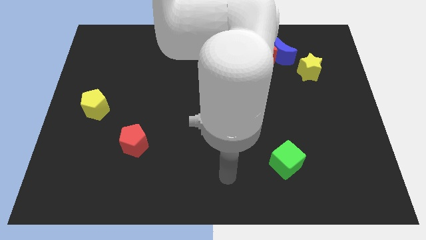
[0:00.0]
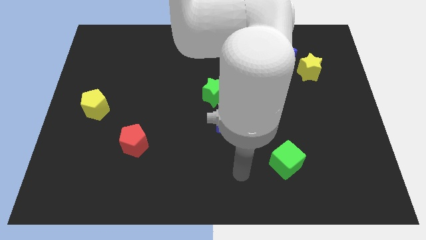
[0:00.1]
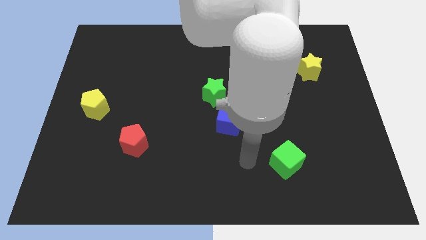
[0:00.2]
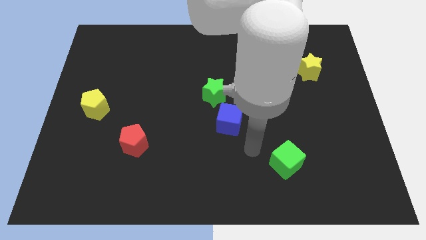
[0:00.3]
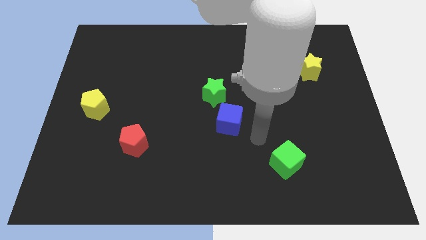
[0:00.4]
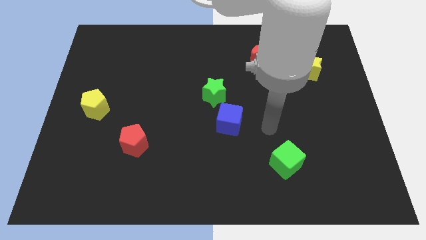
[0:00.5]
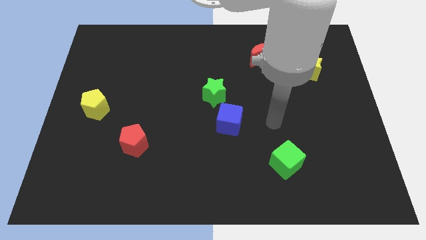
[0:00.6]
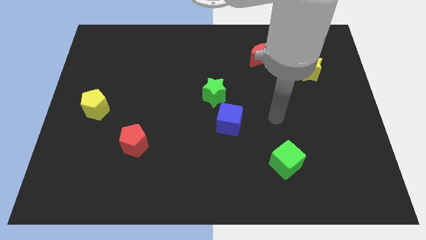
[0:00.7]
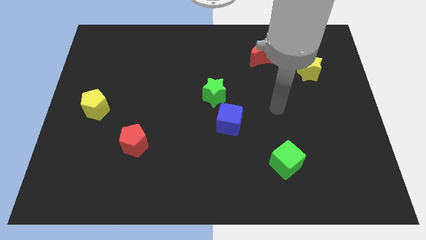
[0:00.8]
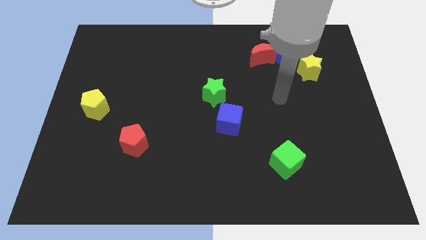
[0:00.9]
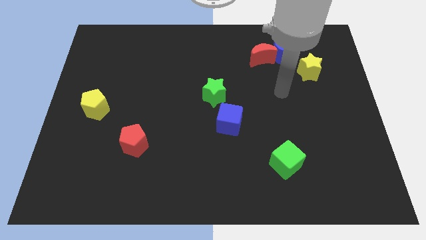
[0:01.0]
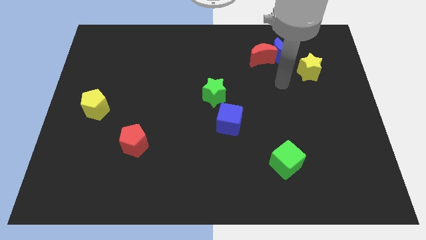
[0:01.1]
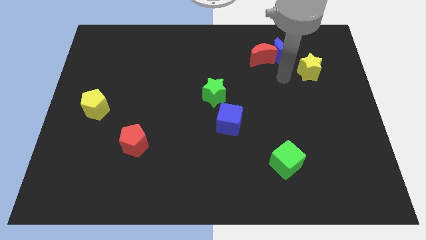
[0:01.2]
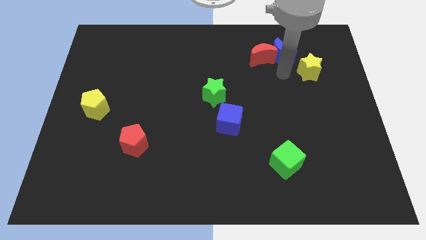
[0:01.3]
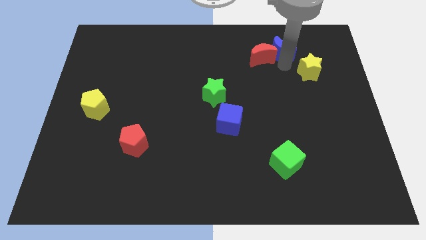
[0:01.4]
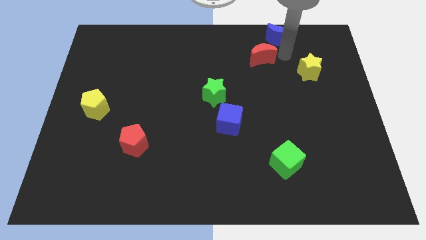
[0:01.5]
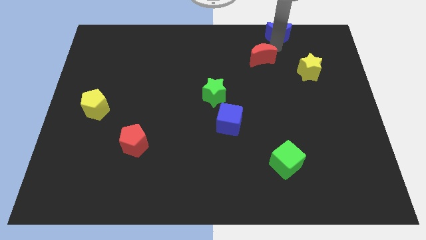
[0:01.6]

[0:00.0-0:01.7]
move the red moon away from the blue moon

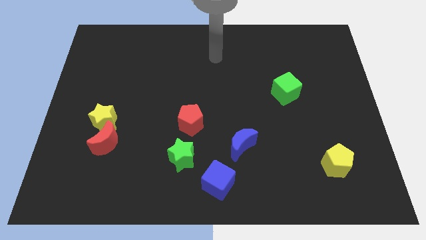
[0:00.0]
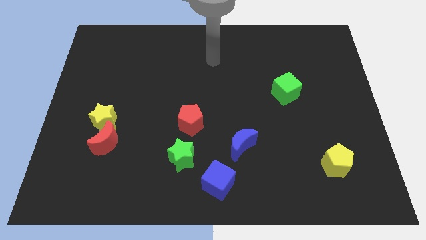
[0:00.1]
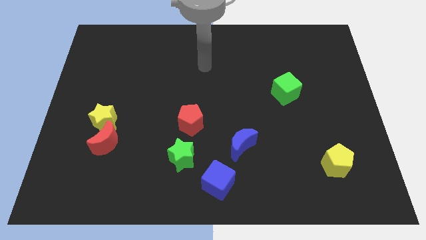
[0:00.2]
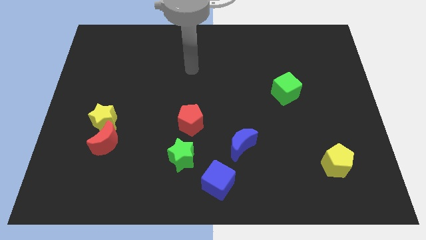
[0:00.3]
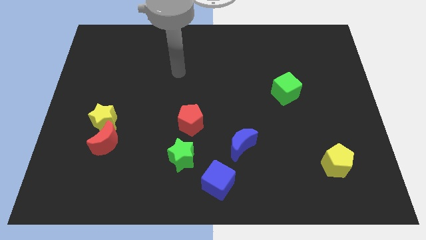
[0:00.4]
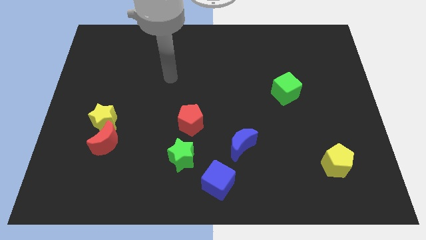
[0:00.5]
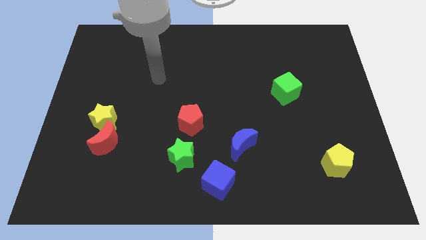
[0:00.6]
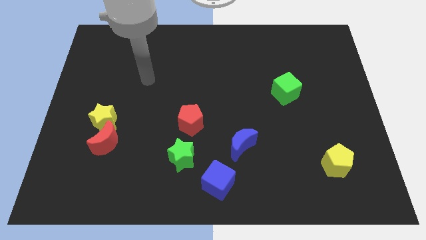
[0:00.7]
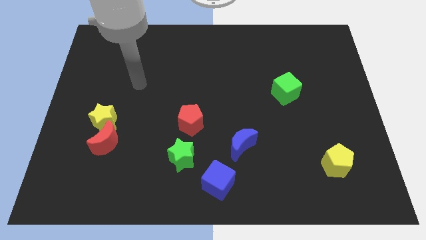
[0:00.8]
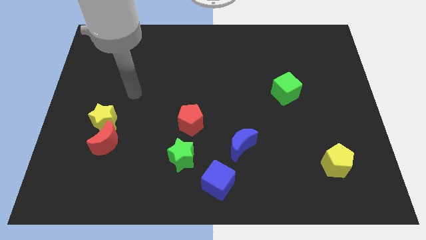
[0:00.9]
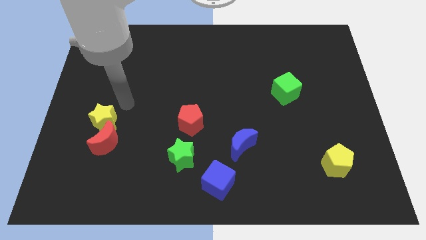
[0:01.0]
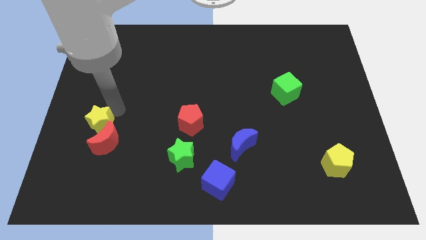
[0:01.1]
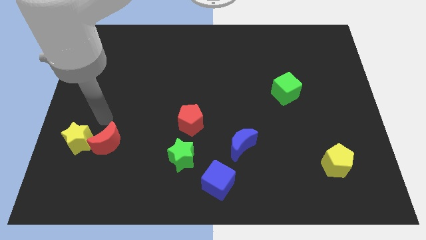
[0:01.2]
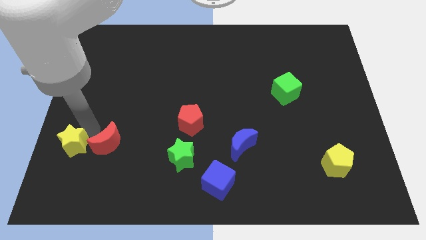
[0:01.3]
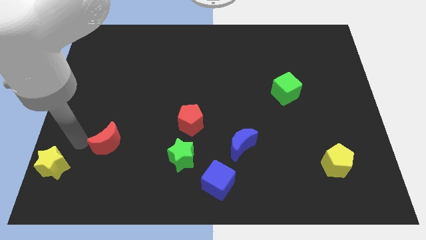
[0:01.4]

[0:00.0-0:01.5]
pull the red moon apart from the yellow star

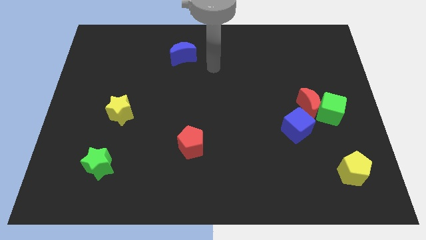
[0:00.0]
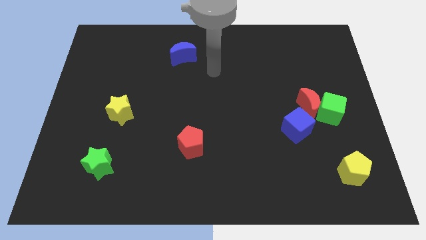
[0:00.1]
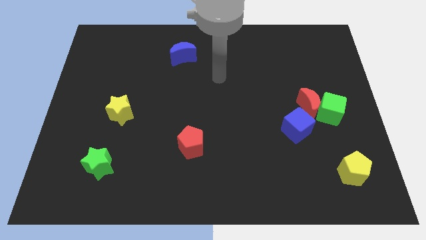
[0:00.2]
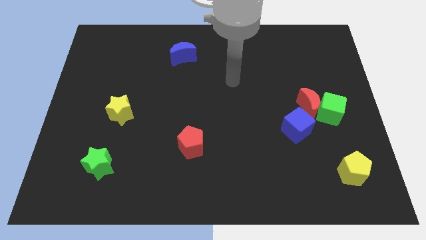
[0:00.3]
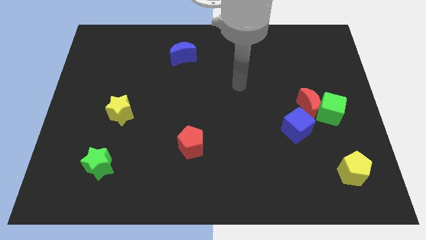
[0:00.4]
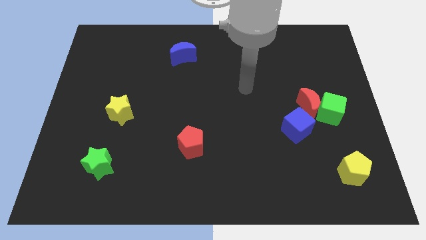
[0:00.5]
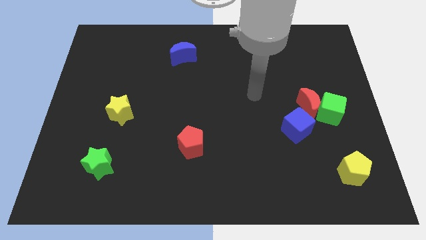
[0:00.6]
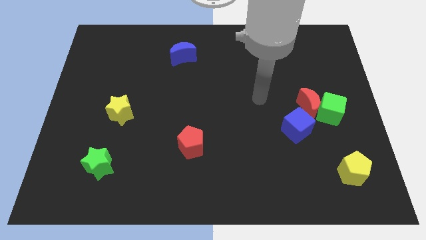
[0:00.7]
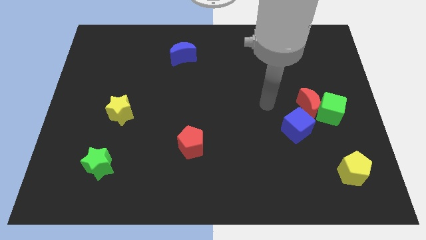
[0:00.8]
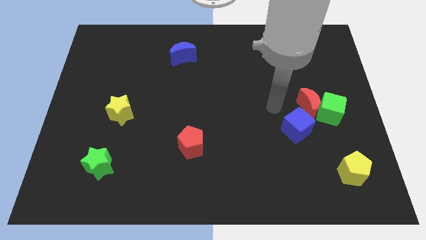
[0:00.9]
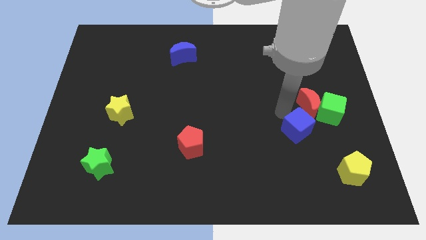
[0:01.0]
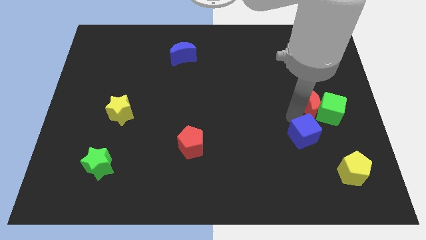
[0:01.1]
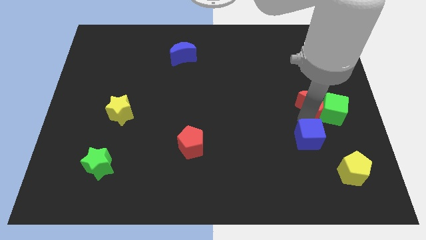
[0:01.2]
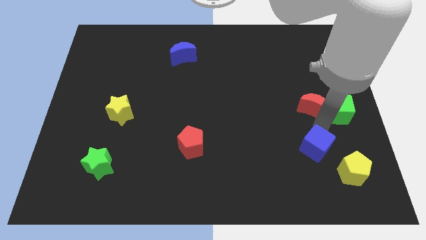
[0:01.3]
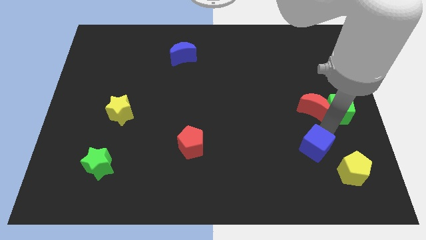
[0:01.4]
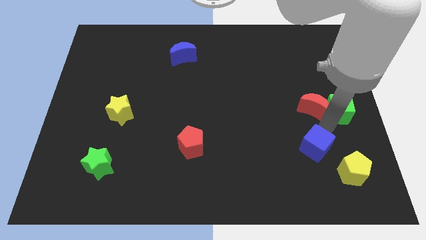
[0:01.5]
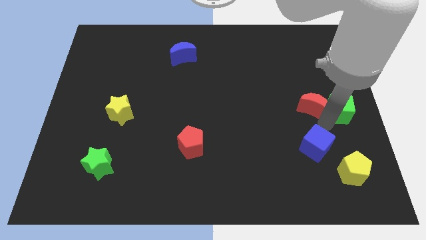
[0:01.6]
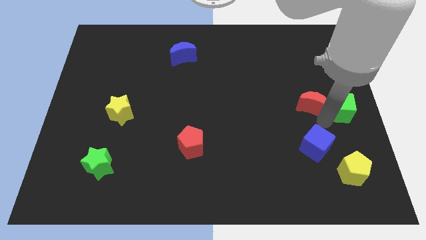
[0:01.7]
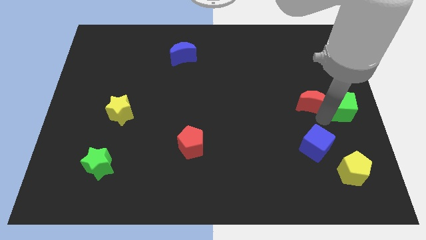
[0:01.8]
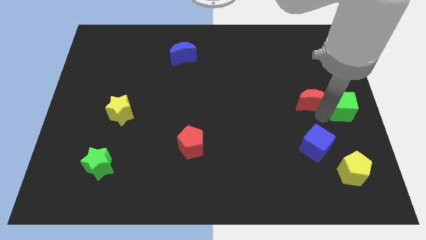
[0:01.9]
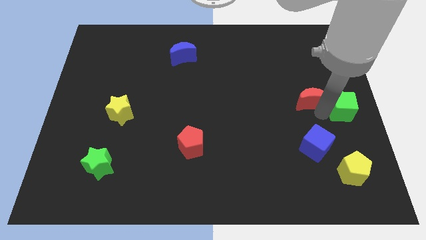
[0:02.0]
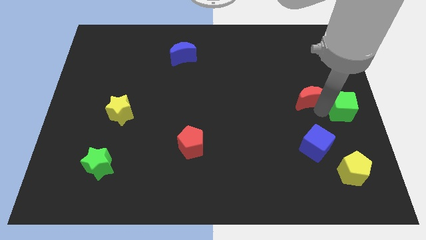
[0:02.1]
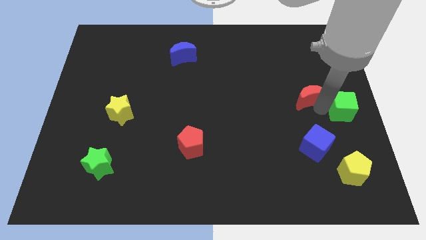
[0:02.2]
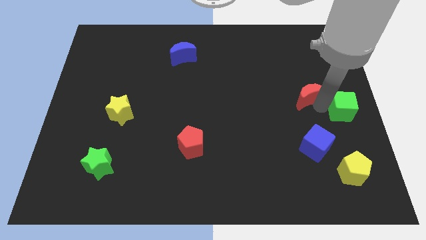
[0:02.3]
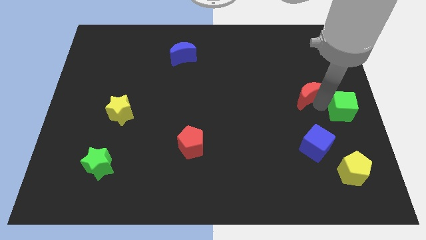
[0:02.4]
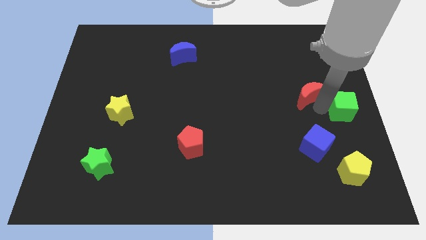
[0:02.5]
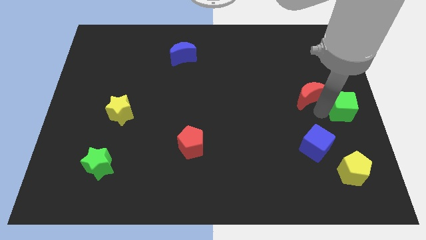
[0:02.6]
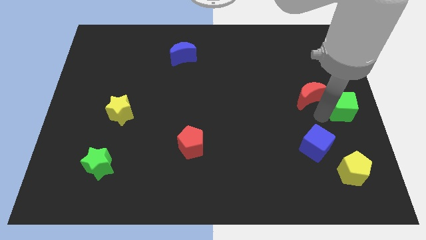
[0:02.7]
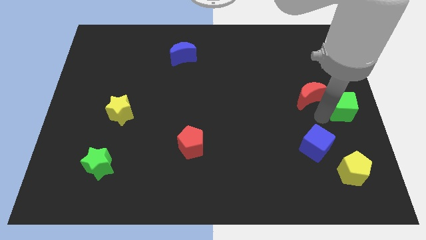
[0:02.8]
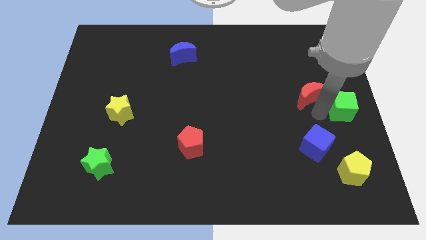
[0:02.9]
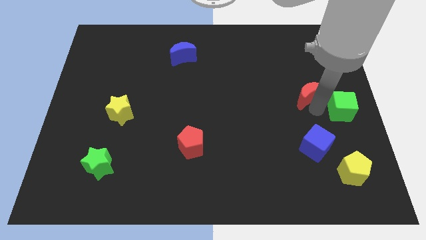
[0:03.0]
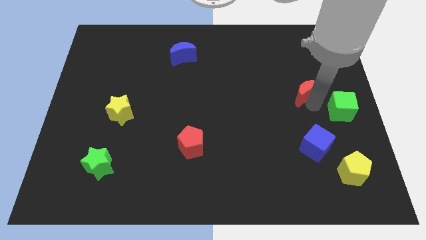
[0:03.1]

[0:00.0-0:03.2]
move the red moon away from the green cube and blue cube

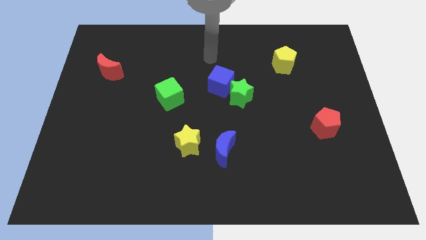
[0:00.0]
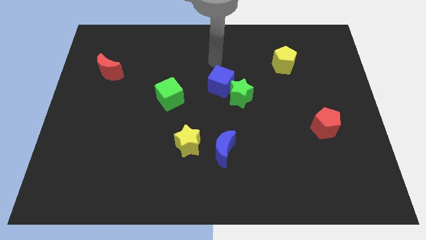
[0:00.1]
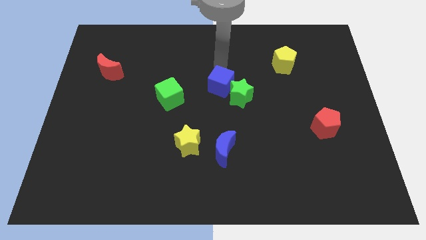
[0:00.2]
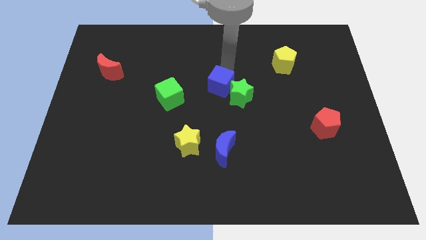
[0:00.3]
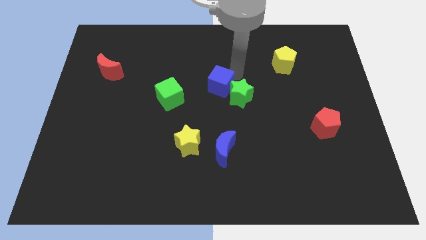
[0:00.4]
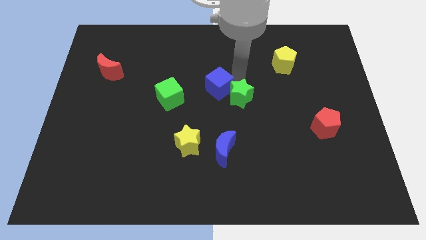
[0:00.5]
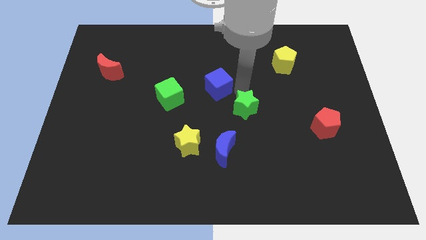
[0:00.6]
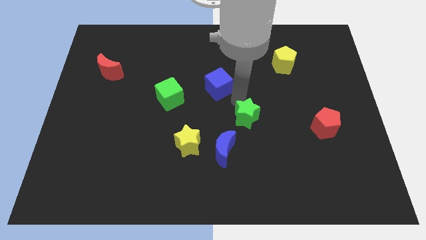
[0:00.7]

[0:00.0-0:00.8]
move the blue cube away from the green star

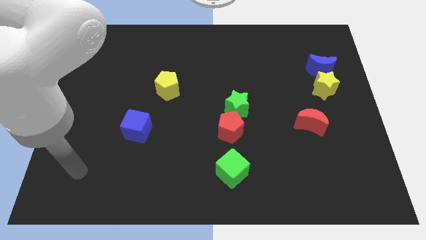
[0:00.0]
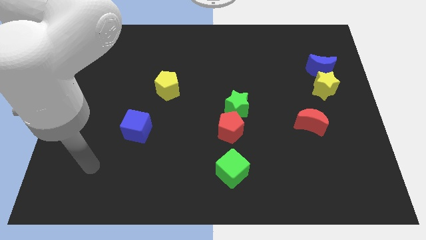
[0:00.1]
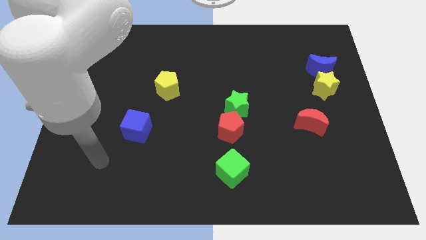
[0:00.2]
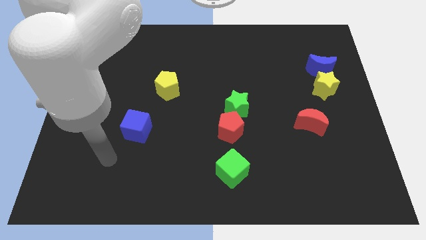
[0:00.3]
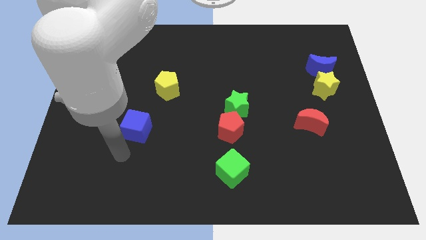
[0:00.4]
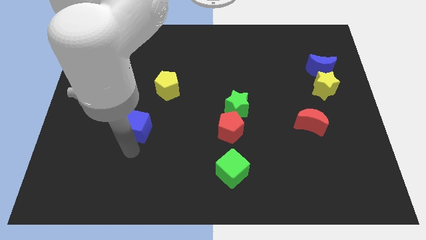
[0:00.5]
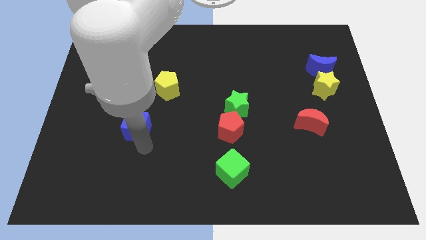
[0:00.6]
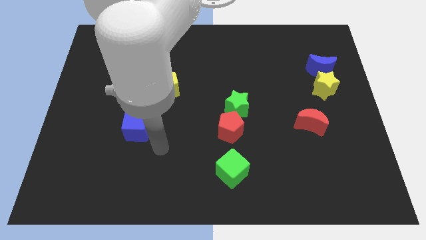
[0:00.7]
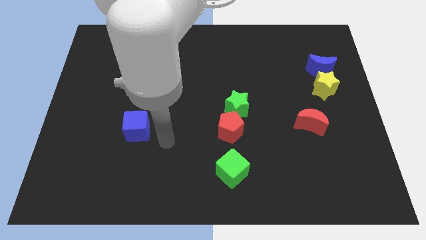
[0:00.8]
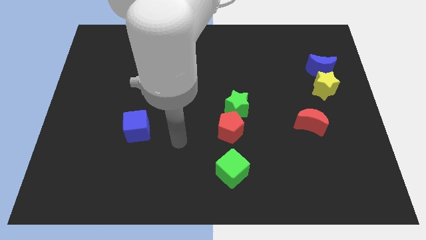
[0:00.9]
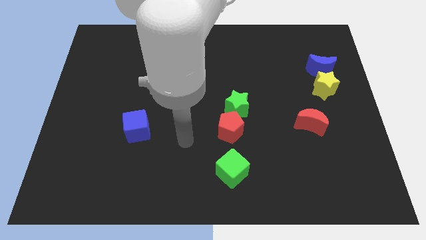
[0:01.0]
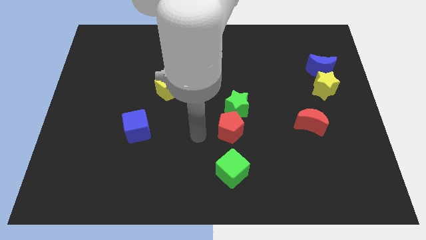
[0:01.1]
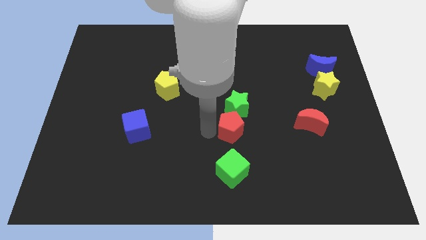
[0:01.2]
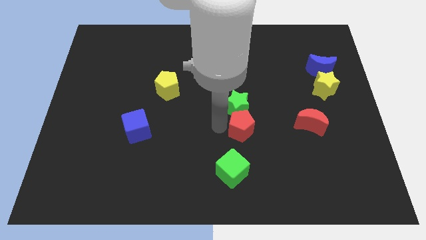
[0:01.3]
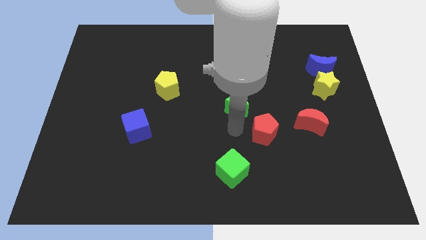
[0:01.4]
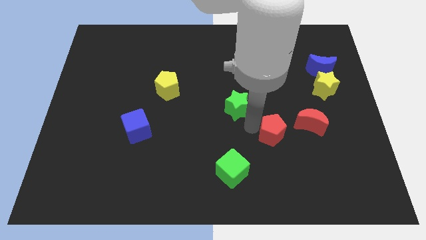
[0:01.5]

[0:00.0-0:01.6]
move the green star away from the red pentagon

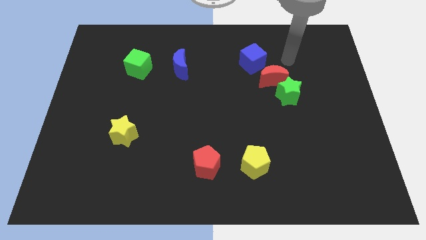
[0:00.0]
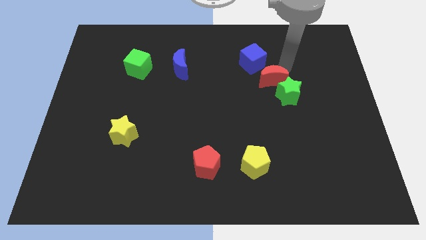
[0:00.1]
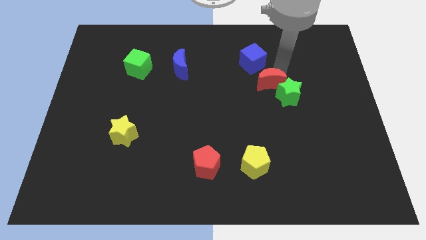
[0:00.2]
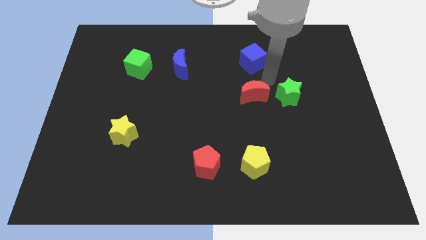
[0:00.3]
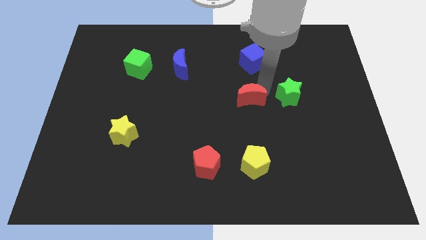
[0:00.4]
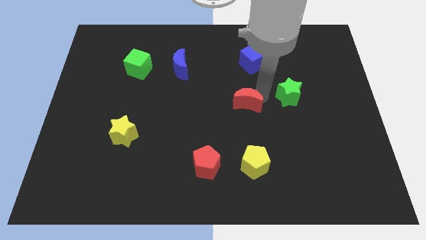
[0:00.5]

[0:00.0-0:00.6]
separate the green star from the red moon
